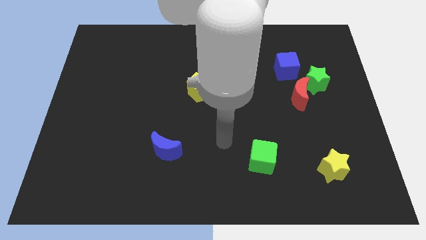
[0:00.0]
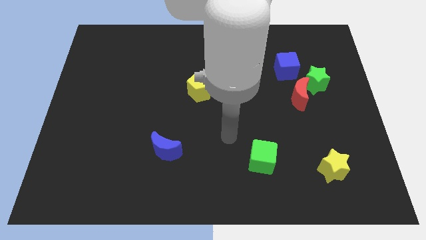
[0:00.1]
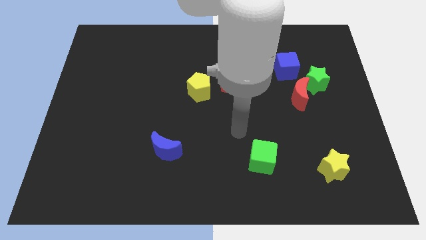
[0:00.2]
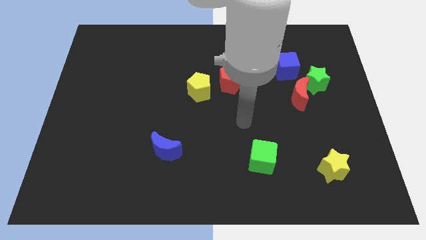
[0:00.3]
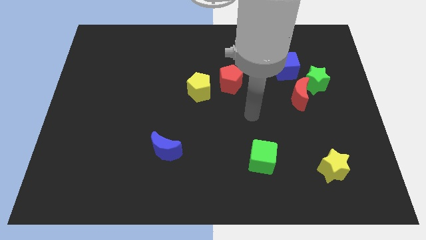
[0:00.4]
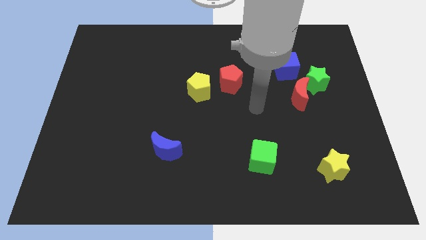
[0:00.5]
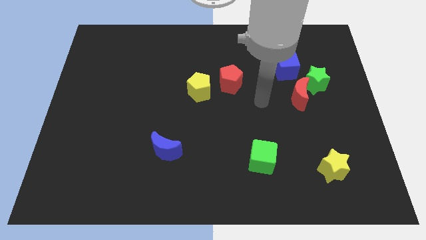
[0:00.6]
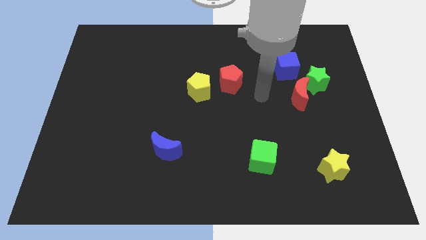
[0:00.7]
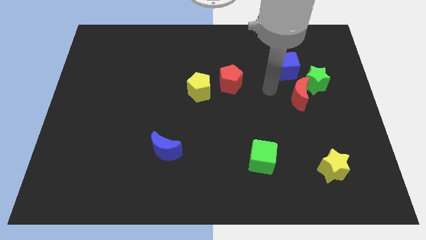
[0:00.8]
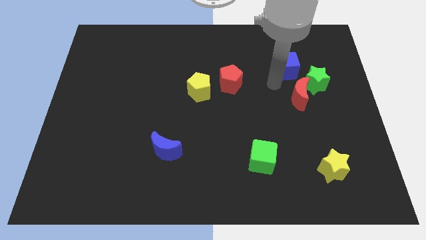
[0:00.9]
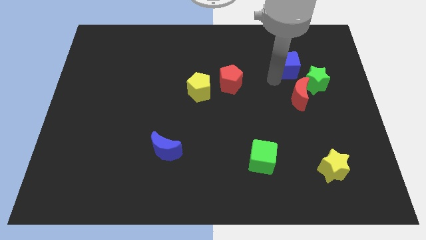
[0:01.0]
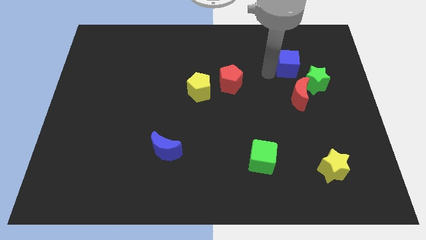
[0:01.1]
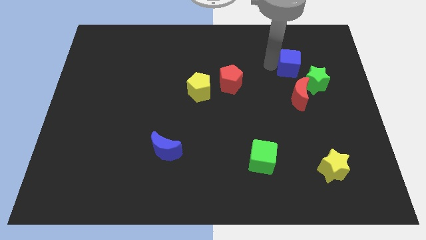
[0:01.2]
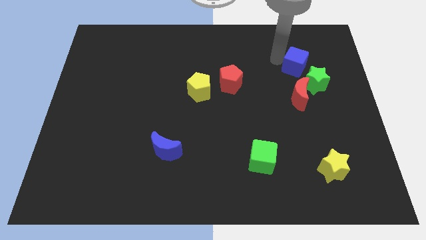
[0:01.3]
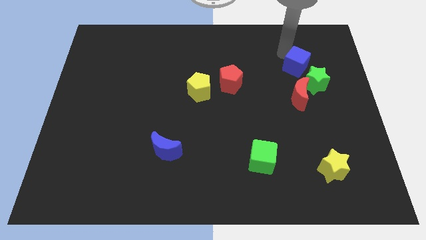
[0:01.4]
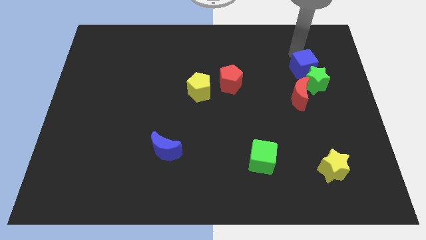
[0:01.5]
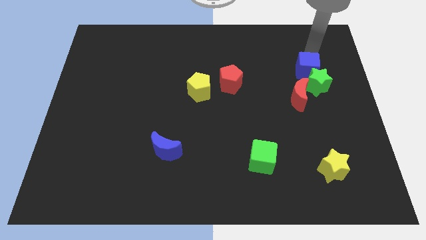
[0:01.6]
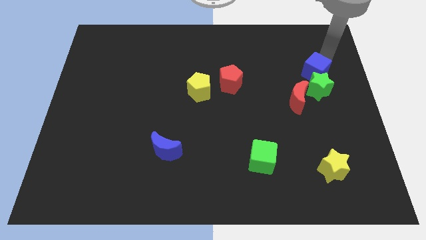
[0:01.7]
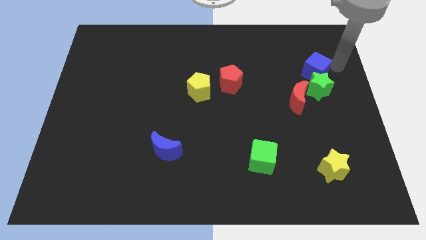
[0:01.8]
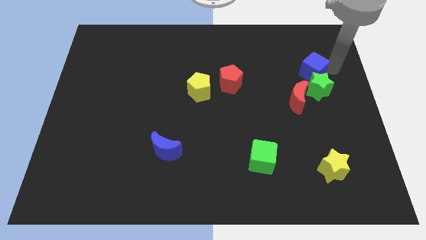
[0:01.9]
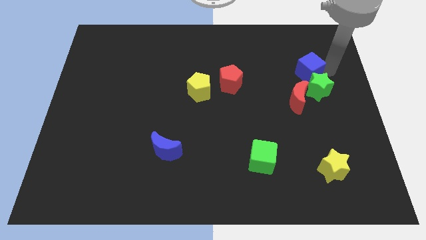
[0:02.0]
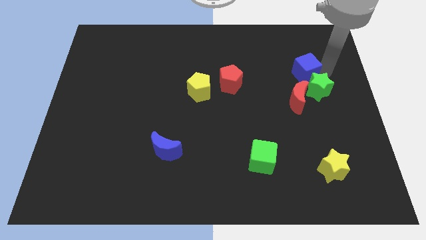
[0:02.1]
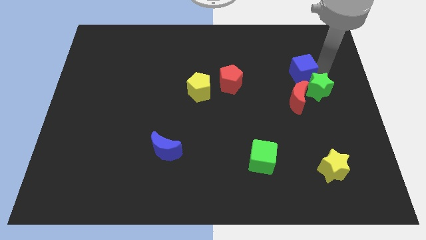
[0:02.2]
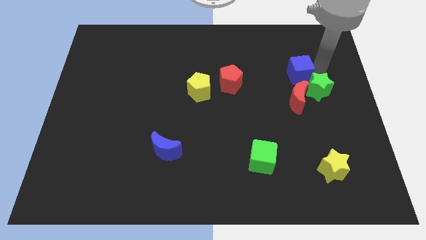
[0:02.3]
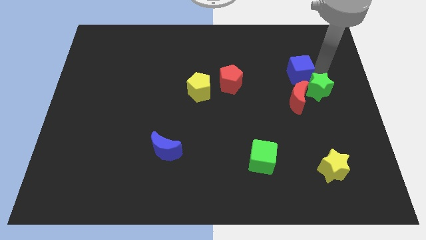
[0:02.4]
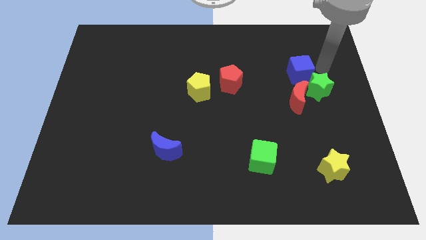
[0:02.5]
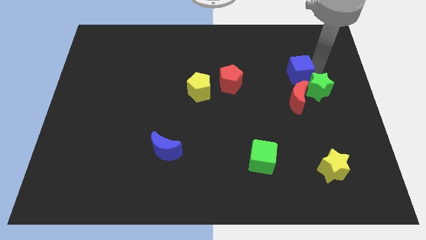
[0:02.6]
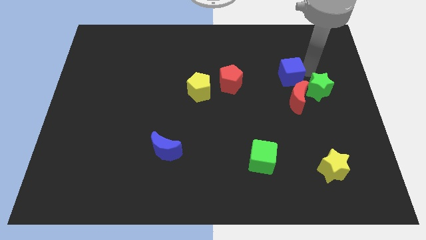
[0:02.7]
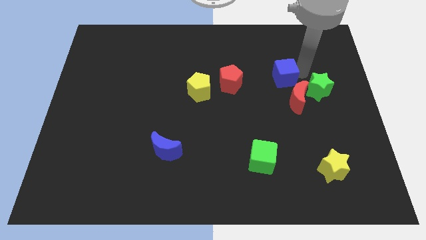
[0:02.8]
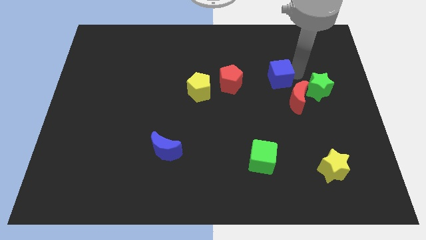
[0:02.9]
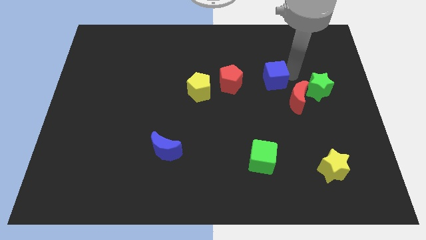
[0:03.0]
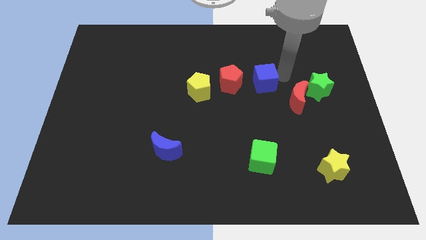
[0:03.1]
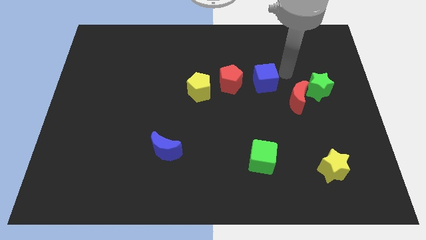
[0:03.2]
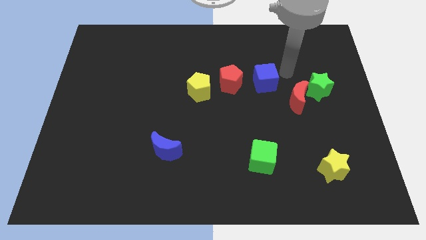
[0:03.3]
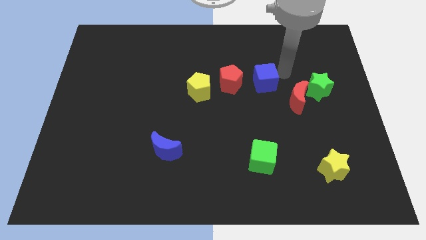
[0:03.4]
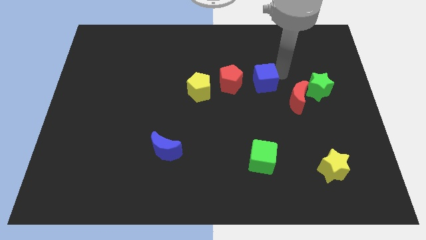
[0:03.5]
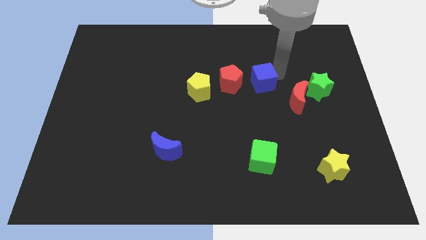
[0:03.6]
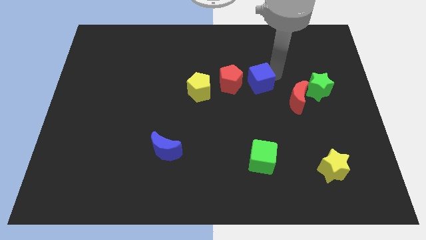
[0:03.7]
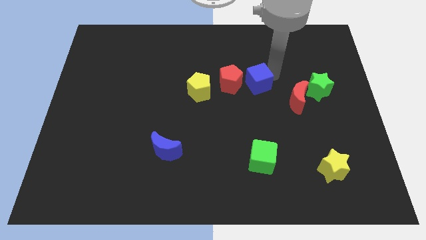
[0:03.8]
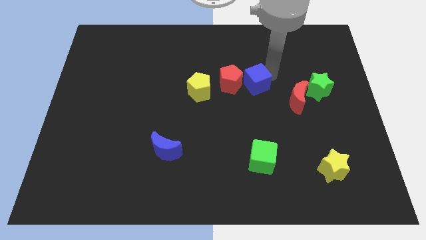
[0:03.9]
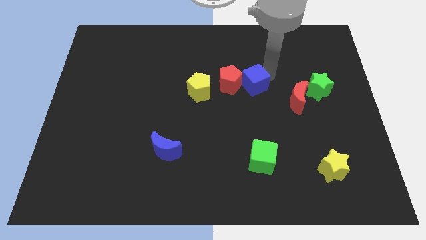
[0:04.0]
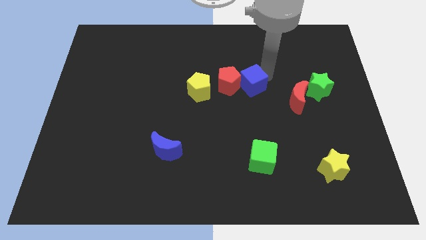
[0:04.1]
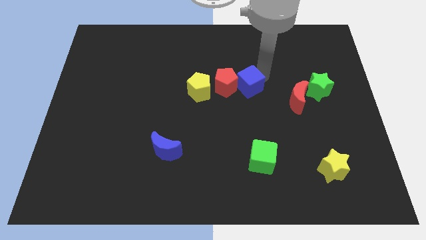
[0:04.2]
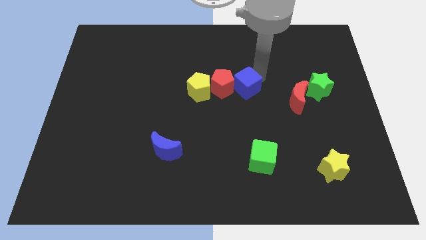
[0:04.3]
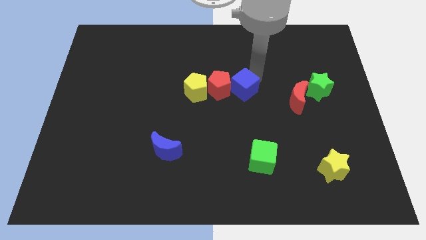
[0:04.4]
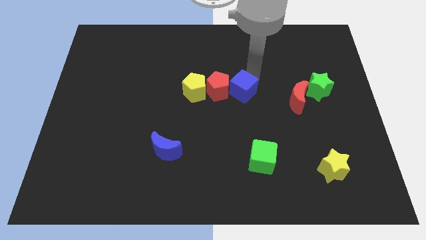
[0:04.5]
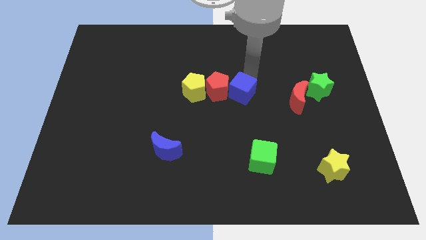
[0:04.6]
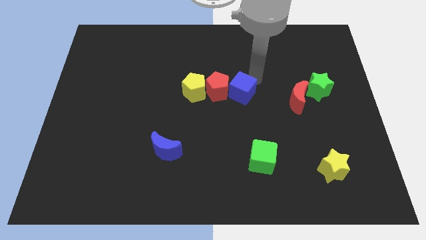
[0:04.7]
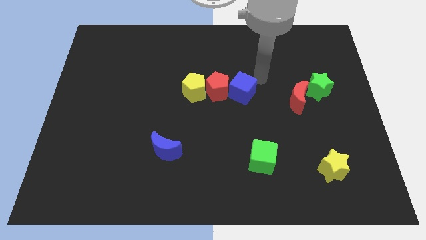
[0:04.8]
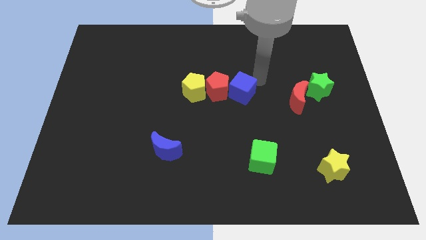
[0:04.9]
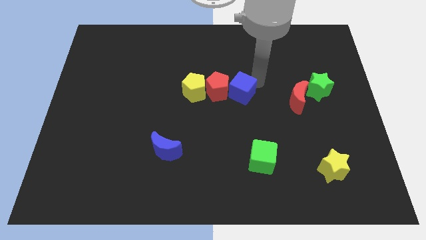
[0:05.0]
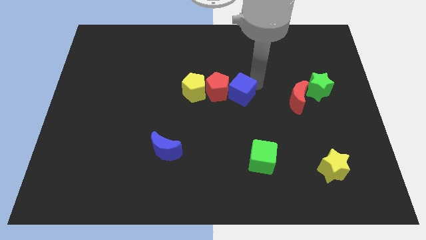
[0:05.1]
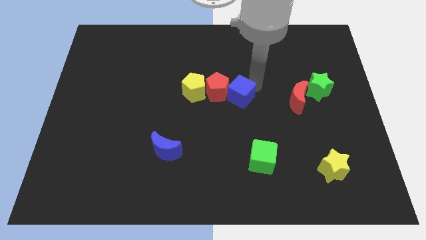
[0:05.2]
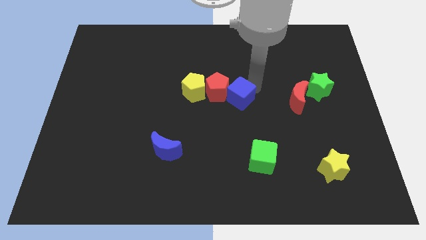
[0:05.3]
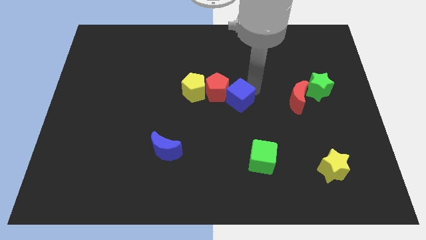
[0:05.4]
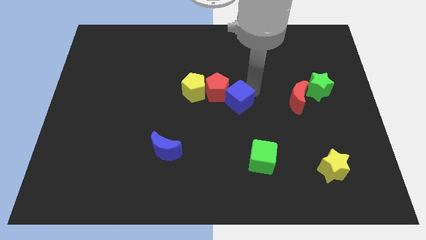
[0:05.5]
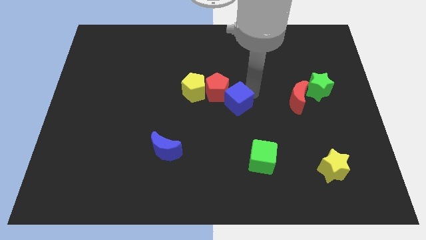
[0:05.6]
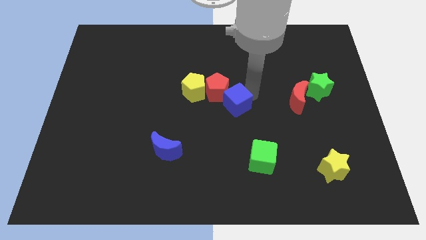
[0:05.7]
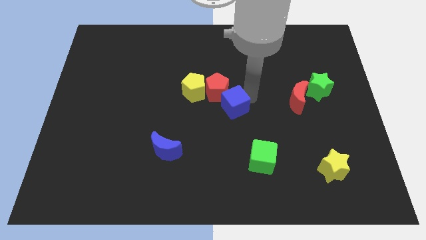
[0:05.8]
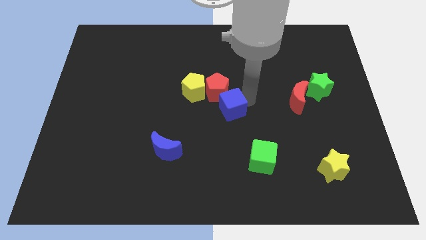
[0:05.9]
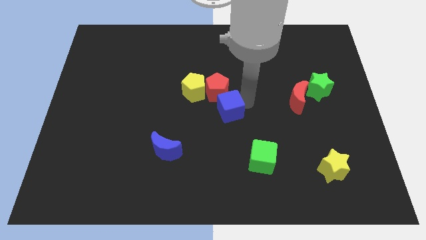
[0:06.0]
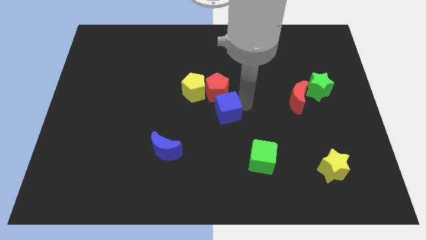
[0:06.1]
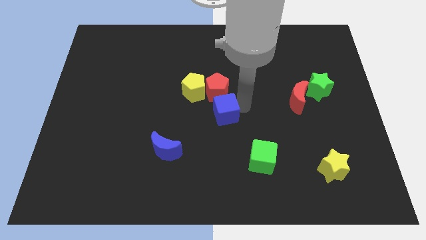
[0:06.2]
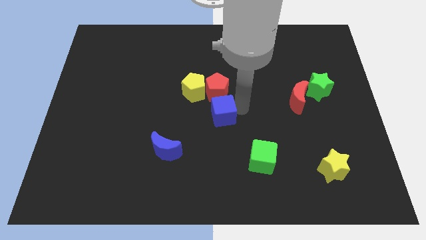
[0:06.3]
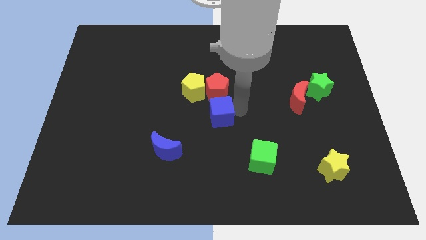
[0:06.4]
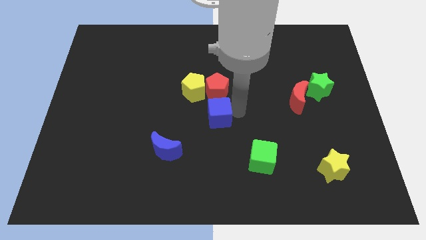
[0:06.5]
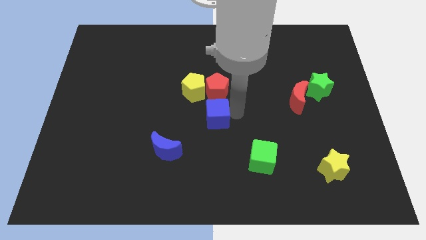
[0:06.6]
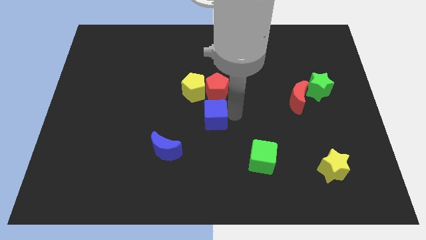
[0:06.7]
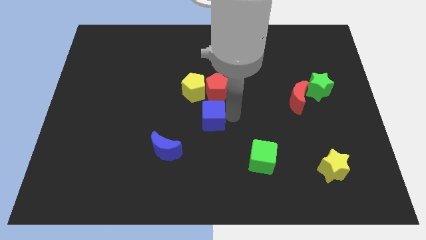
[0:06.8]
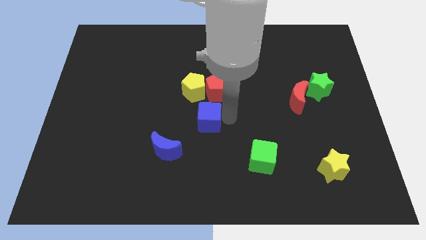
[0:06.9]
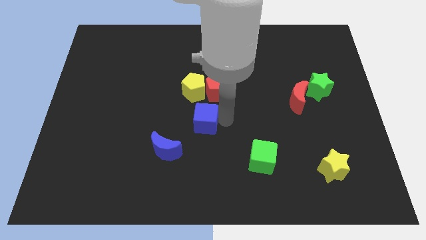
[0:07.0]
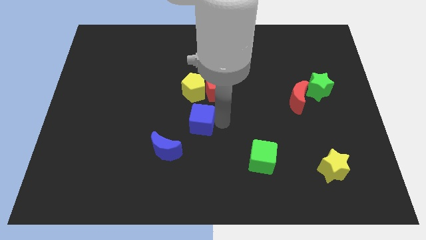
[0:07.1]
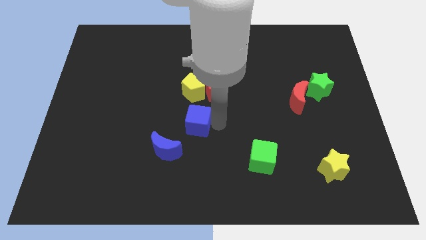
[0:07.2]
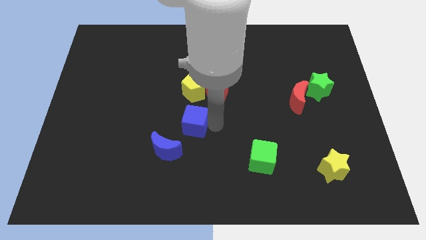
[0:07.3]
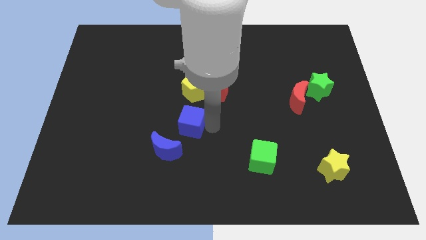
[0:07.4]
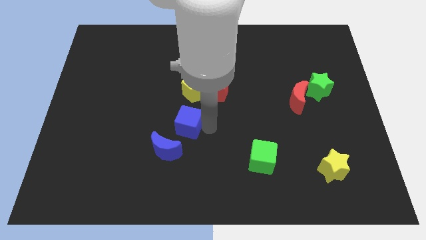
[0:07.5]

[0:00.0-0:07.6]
put the blue cube above the blue moon
